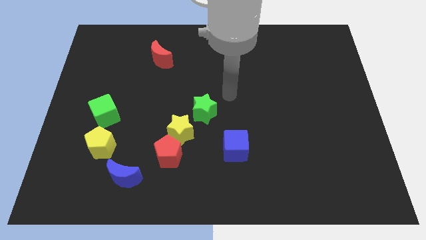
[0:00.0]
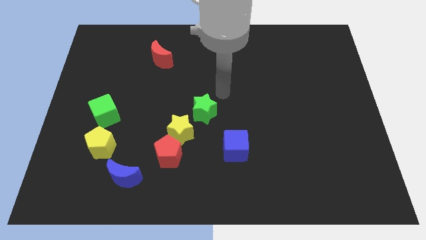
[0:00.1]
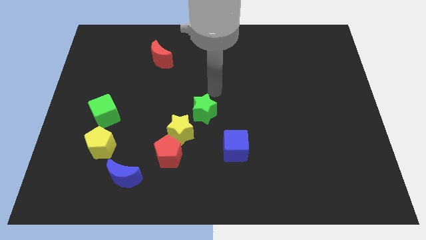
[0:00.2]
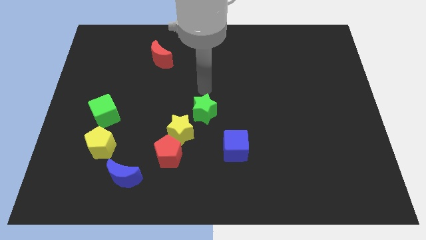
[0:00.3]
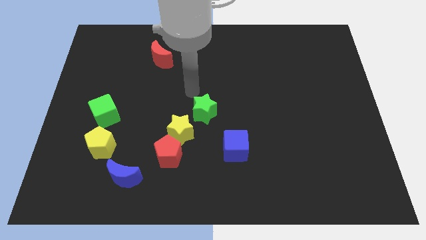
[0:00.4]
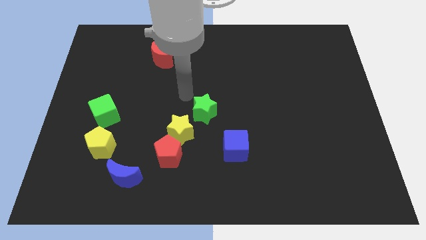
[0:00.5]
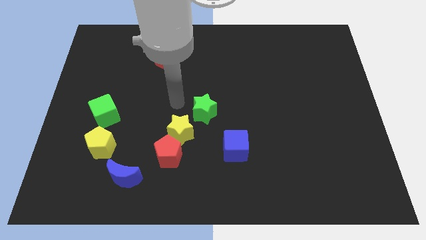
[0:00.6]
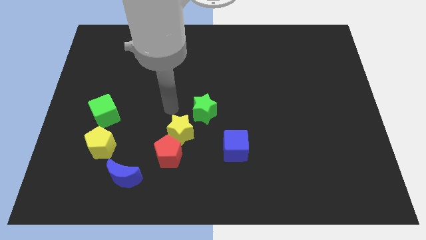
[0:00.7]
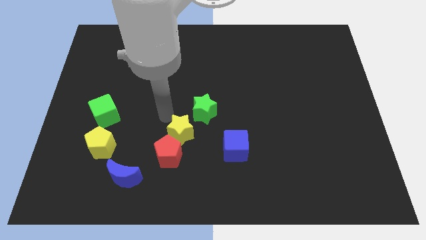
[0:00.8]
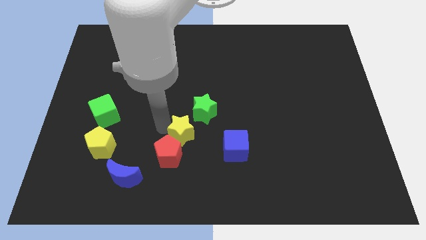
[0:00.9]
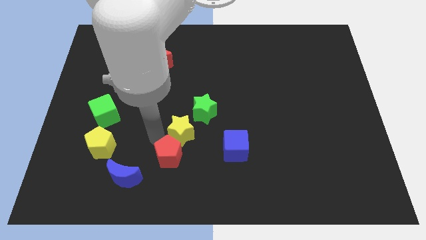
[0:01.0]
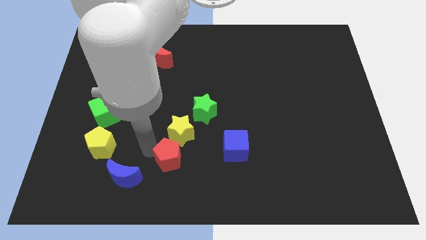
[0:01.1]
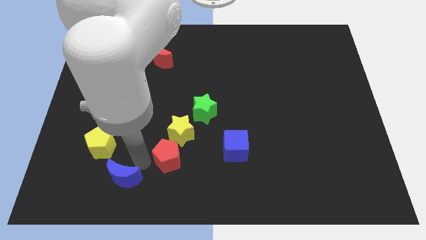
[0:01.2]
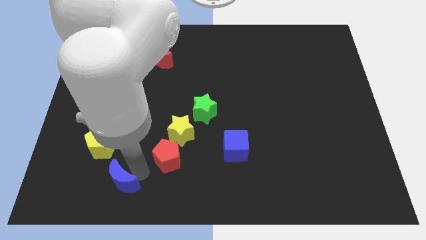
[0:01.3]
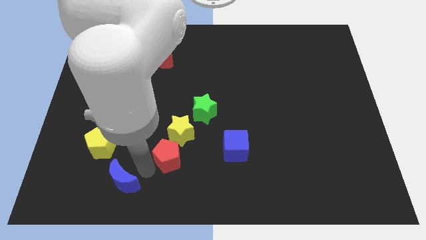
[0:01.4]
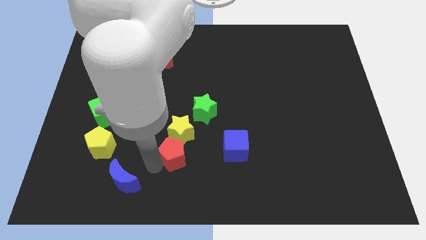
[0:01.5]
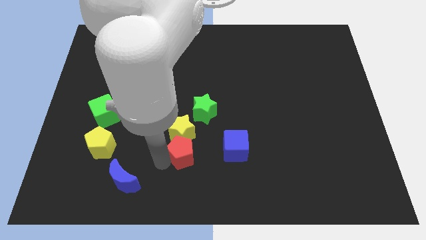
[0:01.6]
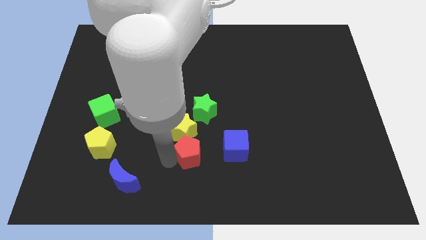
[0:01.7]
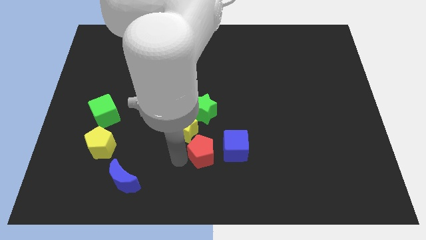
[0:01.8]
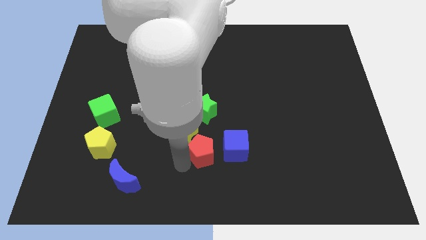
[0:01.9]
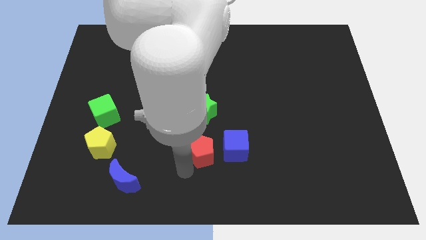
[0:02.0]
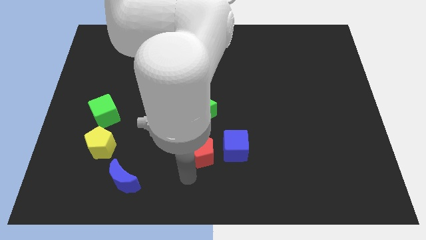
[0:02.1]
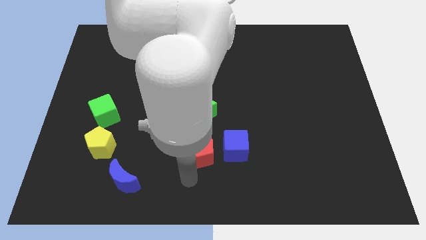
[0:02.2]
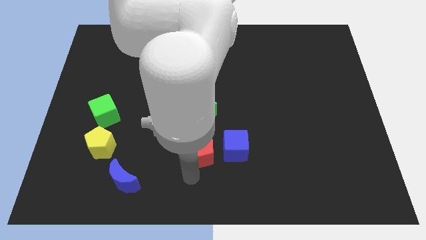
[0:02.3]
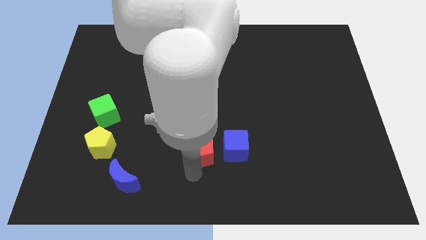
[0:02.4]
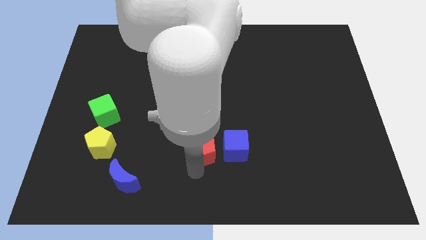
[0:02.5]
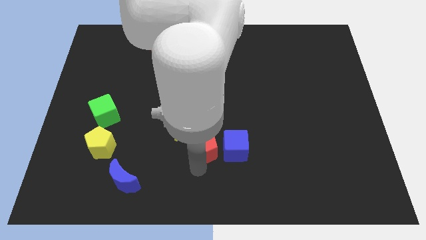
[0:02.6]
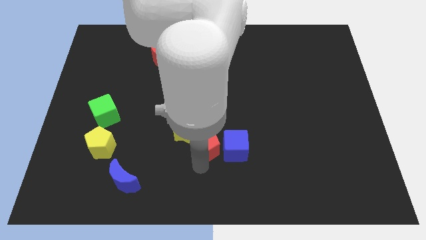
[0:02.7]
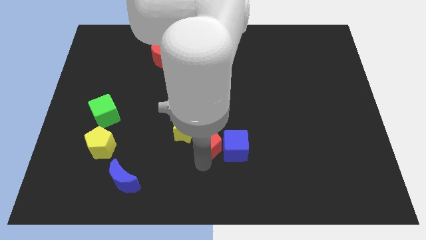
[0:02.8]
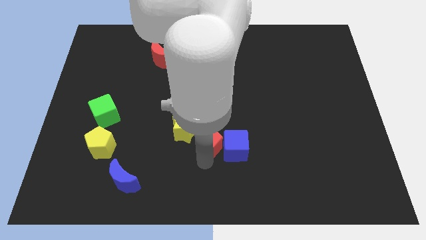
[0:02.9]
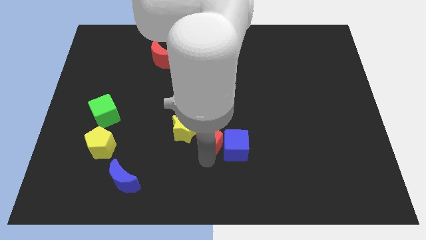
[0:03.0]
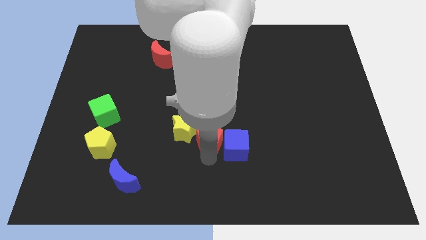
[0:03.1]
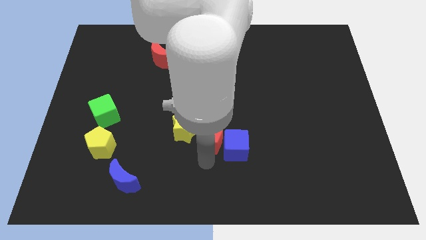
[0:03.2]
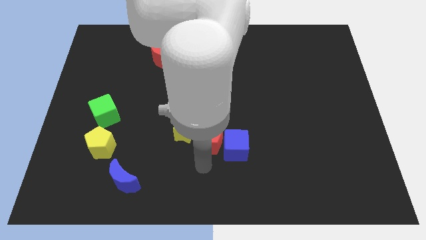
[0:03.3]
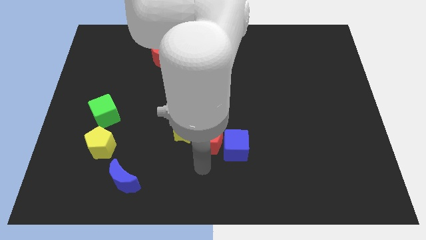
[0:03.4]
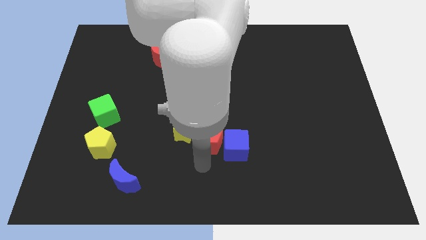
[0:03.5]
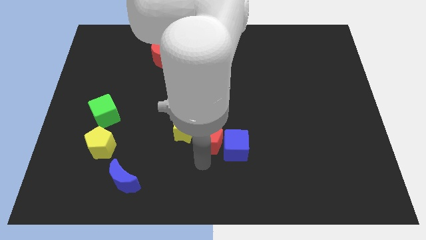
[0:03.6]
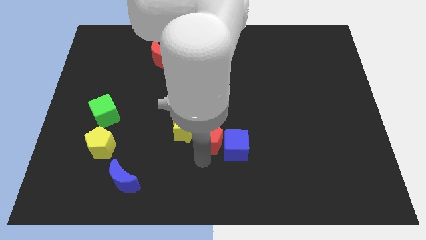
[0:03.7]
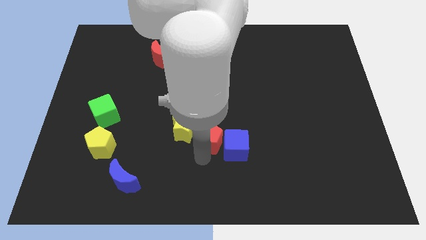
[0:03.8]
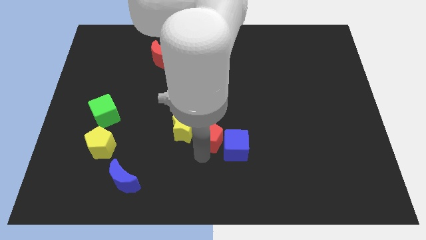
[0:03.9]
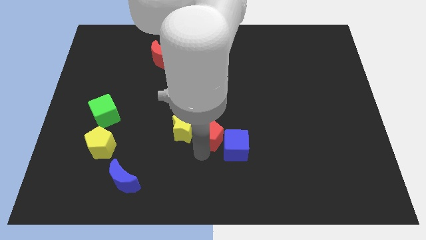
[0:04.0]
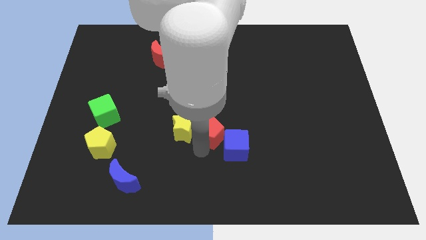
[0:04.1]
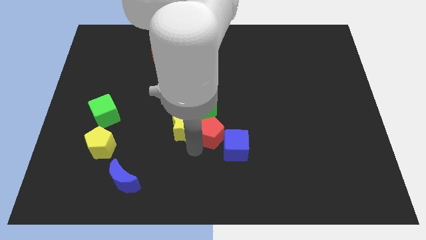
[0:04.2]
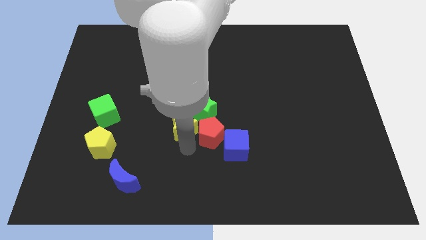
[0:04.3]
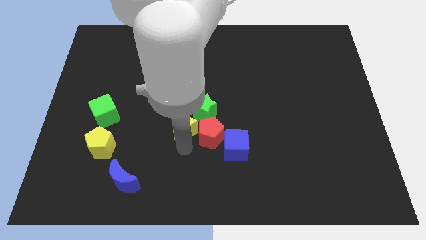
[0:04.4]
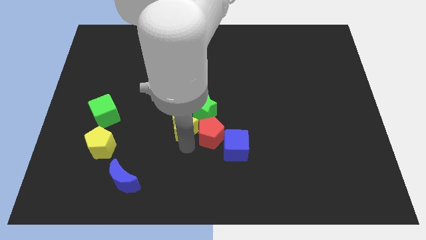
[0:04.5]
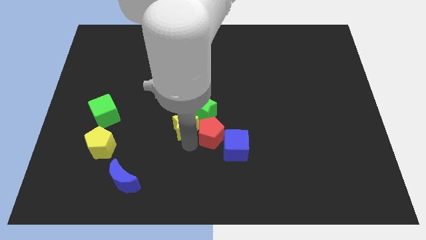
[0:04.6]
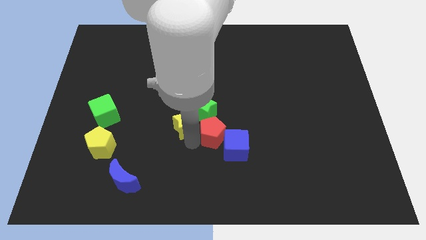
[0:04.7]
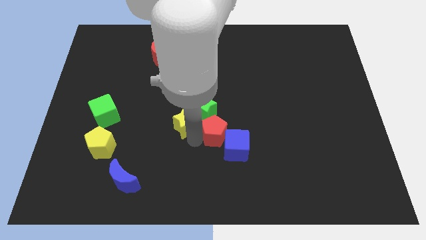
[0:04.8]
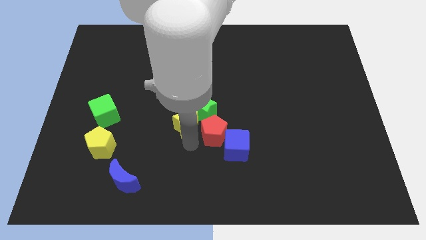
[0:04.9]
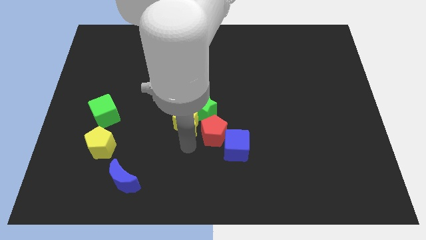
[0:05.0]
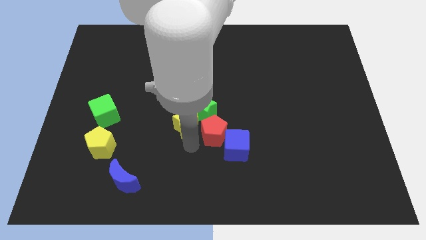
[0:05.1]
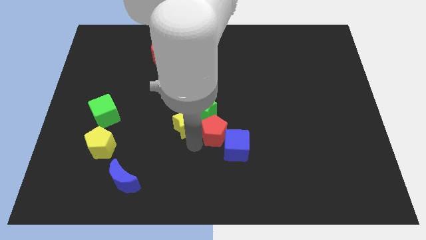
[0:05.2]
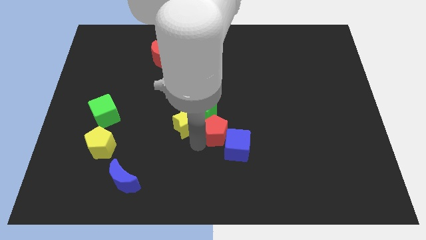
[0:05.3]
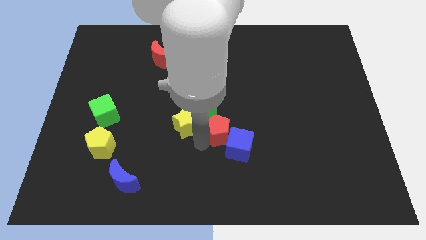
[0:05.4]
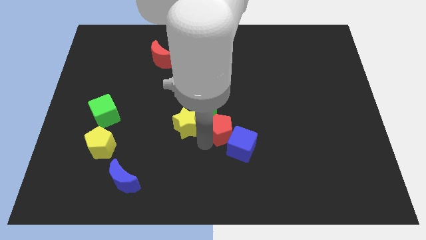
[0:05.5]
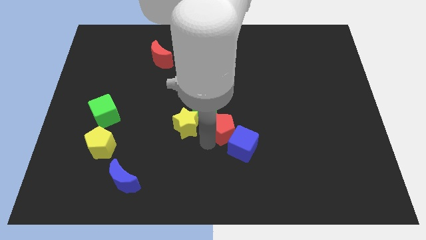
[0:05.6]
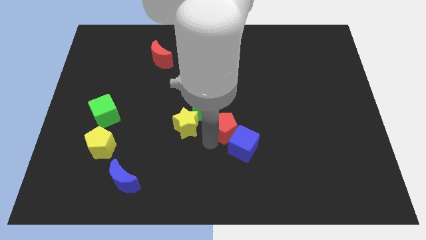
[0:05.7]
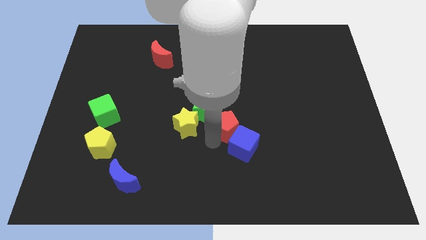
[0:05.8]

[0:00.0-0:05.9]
put the red pentagon just right of the green star

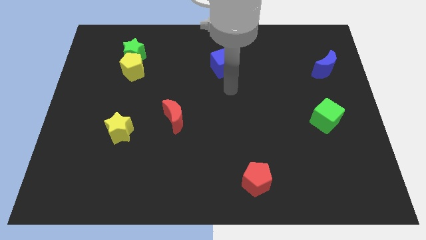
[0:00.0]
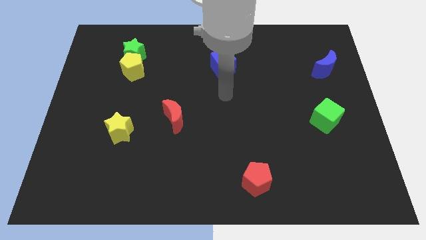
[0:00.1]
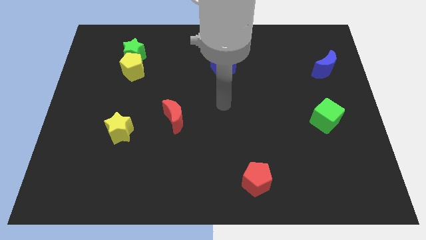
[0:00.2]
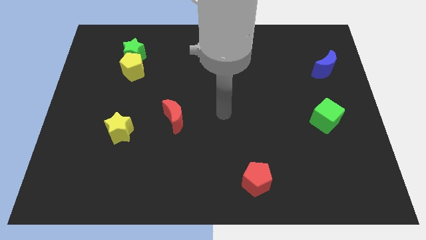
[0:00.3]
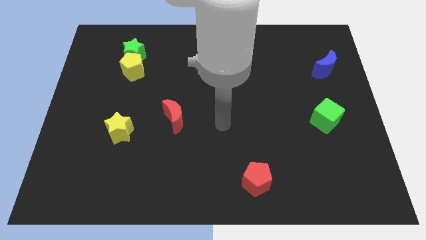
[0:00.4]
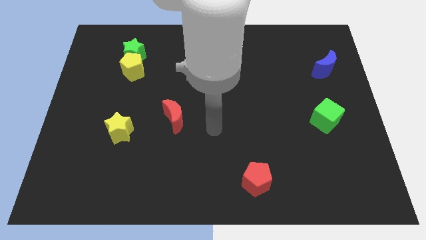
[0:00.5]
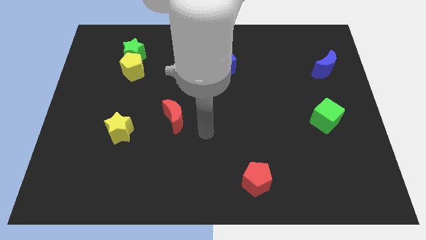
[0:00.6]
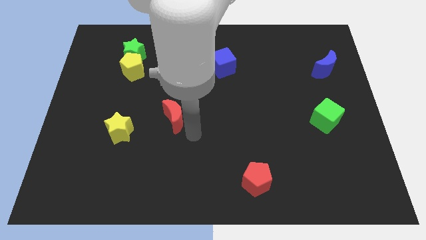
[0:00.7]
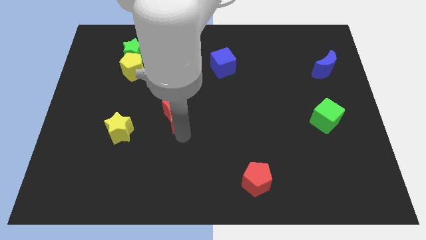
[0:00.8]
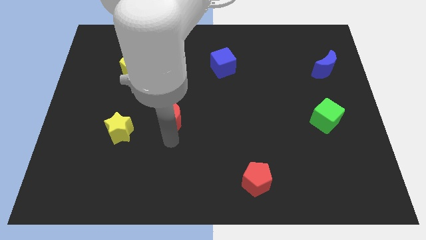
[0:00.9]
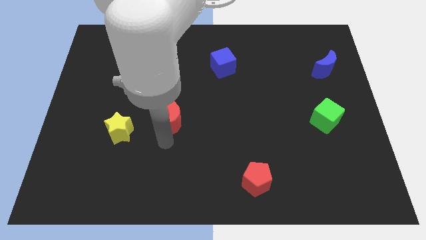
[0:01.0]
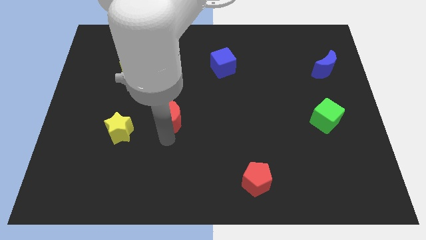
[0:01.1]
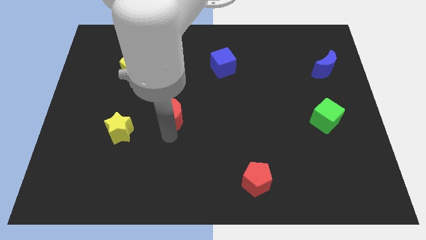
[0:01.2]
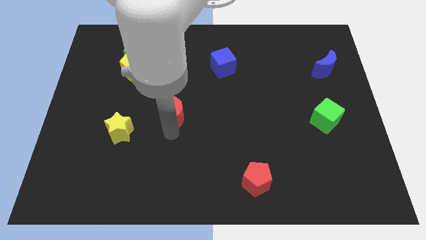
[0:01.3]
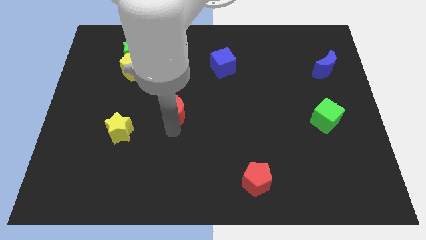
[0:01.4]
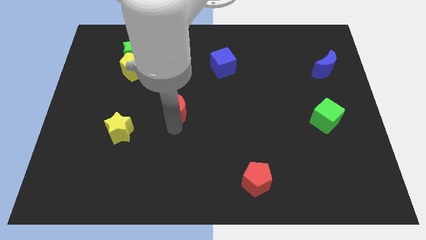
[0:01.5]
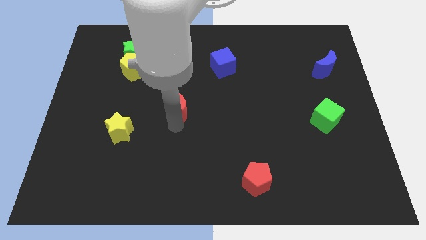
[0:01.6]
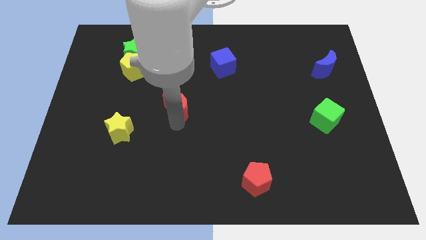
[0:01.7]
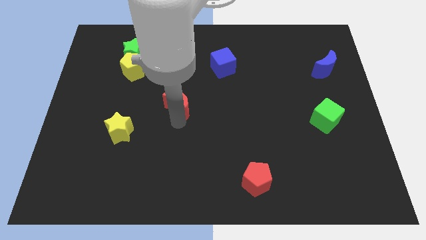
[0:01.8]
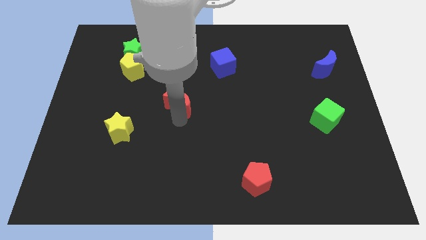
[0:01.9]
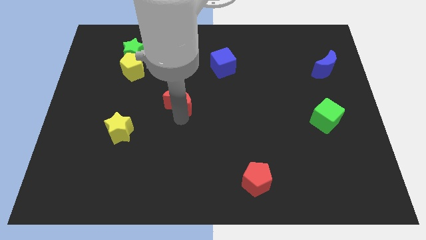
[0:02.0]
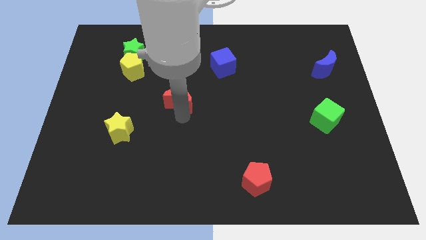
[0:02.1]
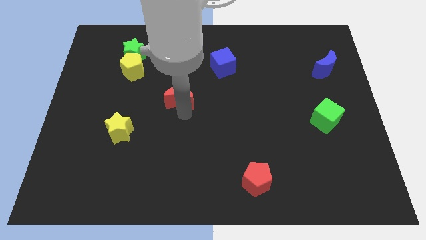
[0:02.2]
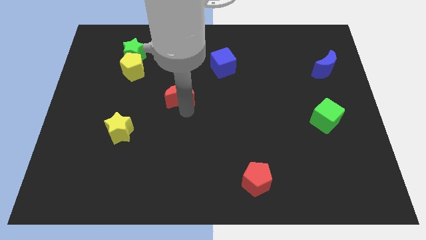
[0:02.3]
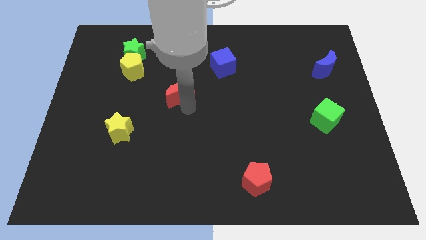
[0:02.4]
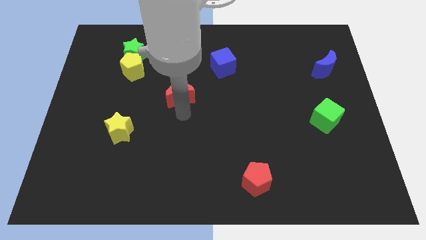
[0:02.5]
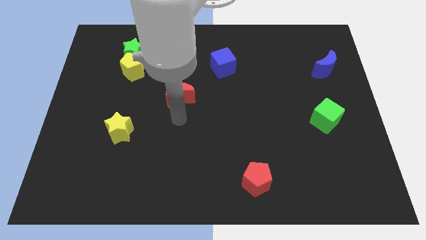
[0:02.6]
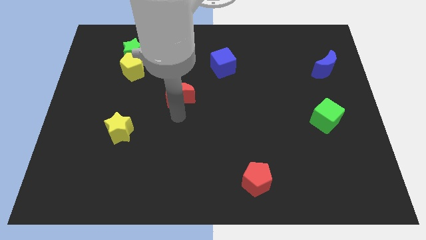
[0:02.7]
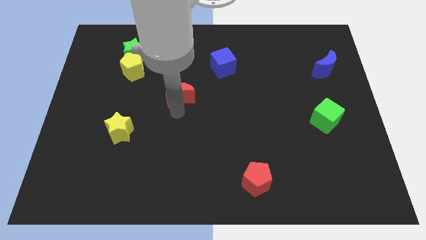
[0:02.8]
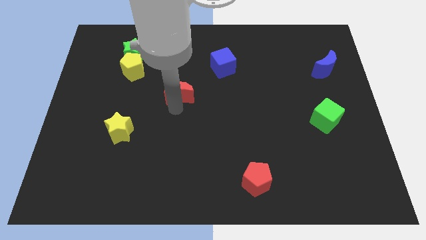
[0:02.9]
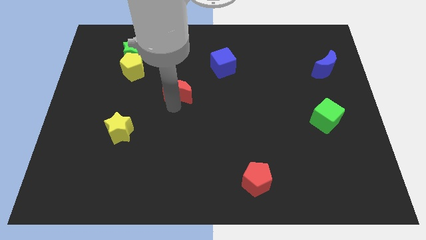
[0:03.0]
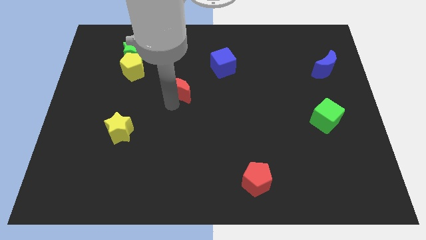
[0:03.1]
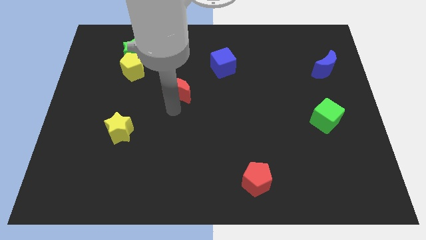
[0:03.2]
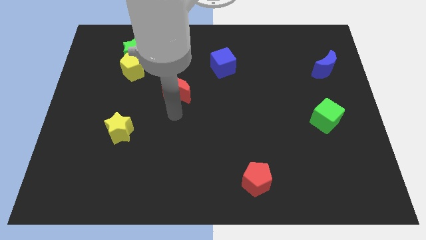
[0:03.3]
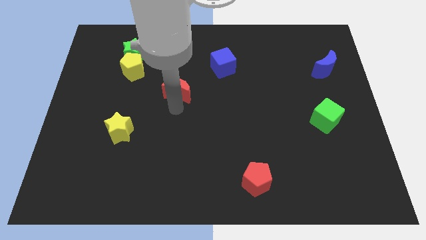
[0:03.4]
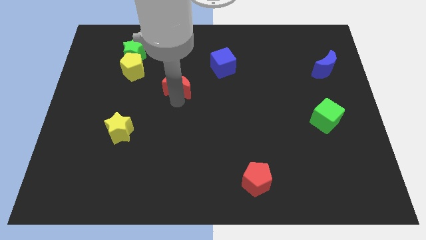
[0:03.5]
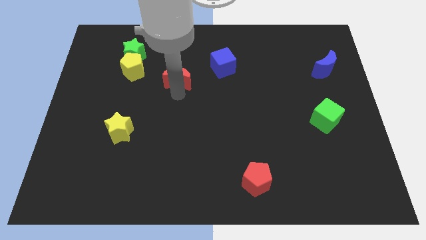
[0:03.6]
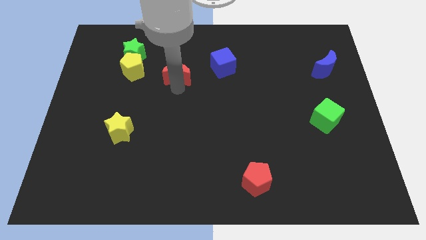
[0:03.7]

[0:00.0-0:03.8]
put the red moon to the left side of the blue cube
